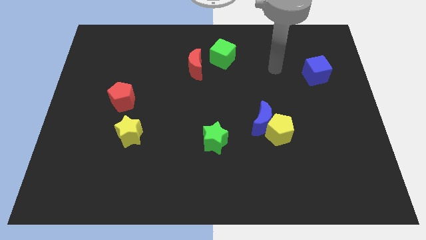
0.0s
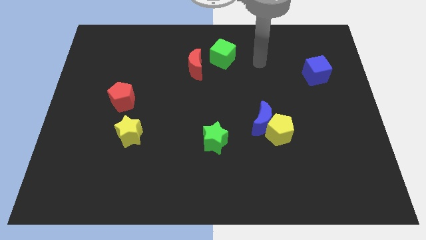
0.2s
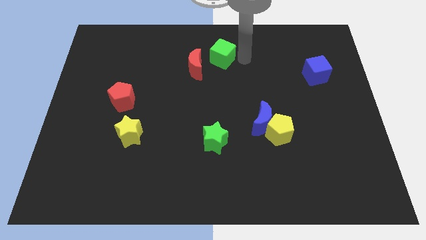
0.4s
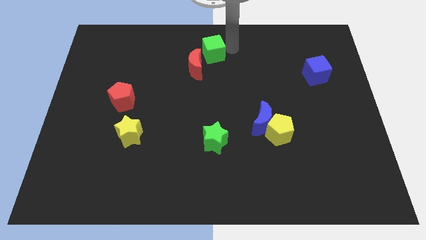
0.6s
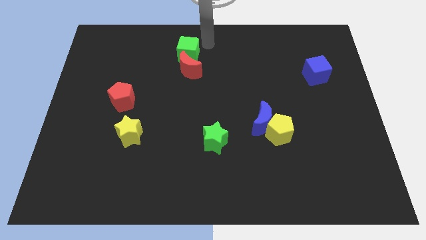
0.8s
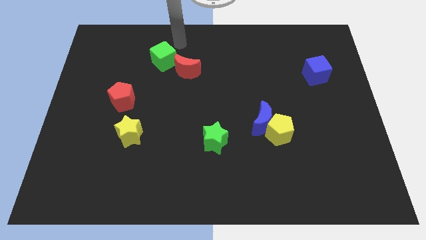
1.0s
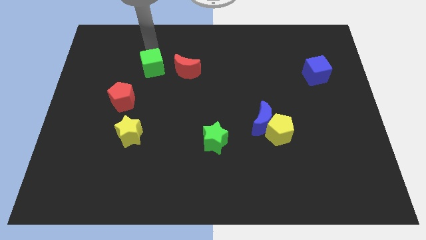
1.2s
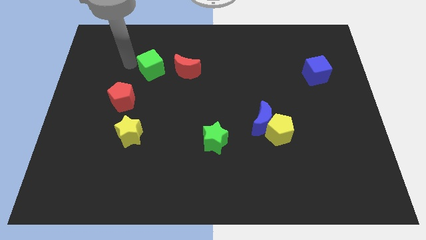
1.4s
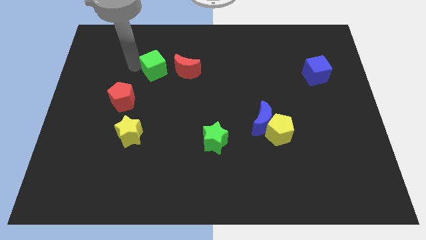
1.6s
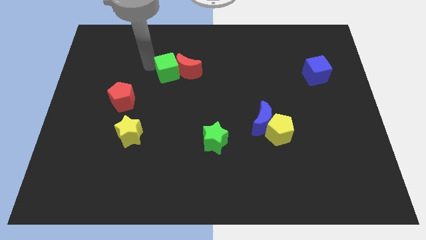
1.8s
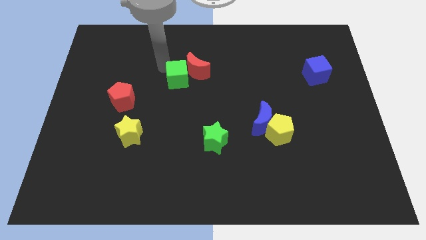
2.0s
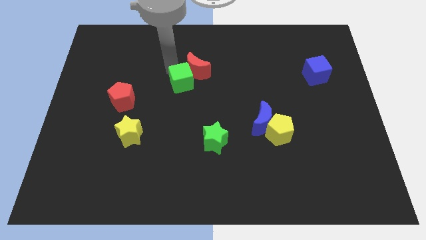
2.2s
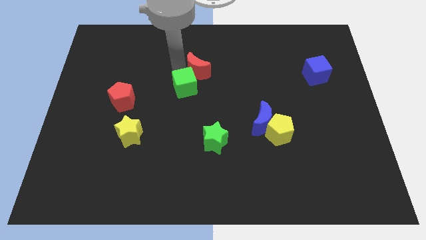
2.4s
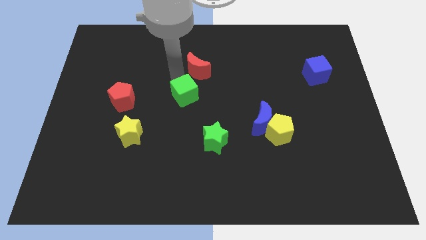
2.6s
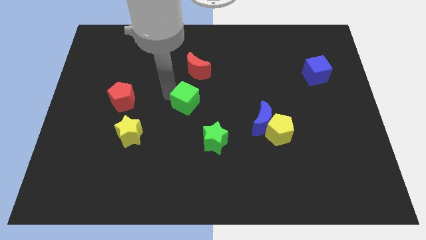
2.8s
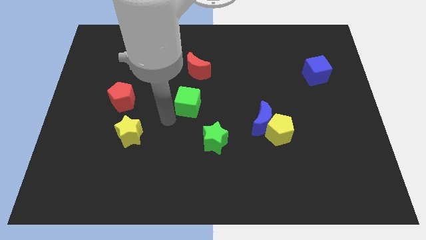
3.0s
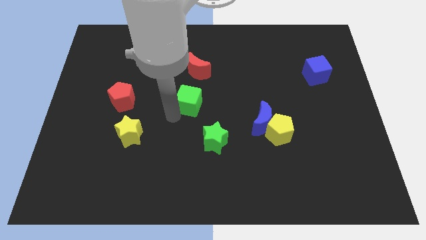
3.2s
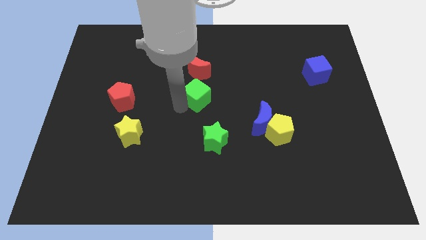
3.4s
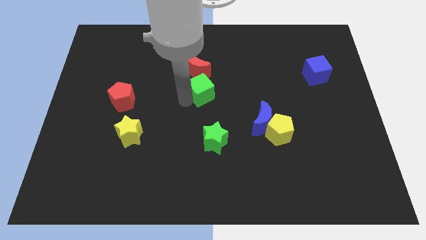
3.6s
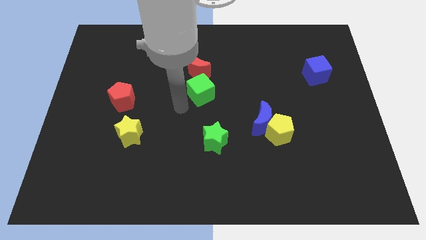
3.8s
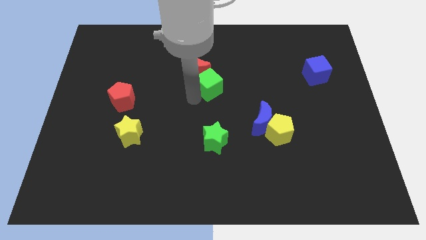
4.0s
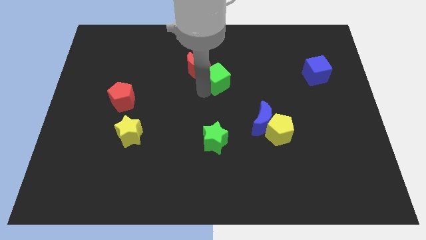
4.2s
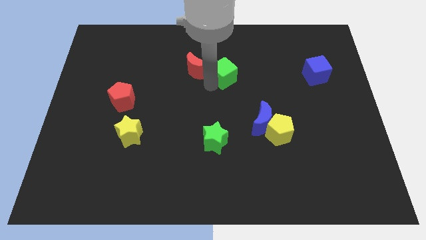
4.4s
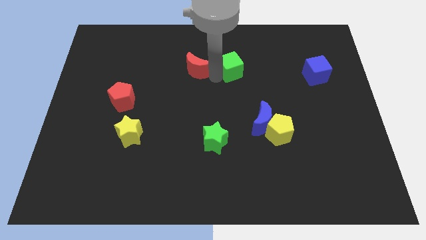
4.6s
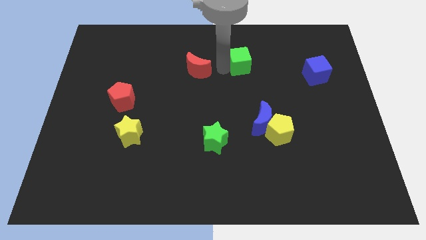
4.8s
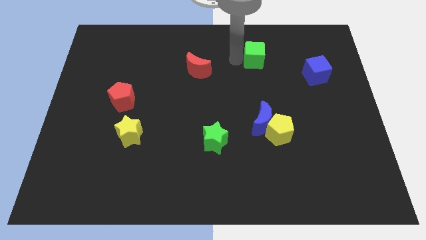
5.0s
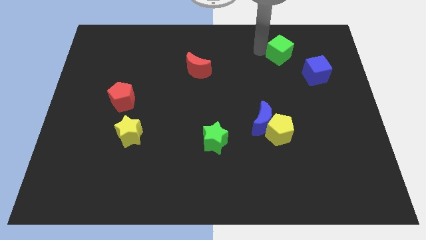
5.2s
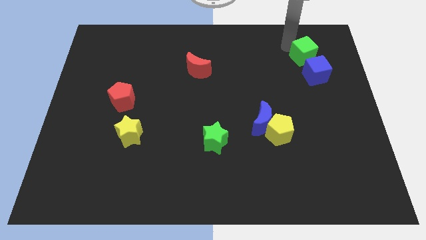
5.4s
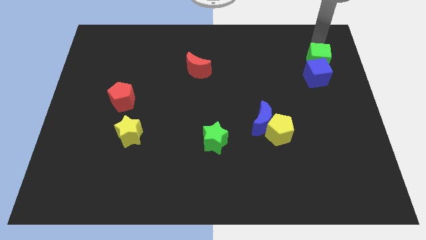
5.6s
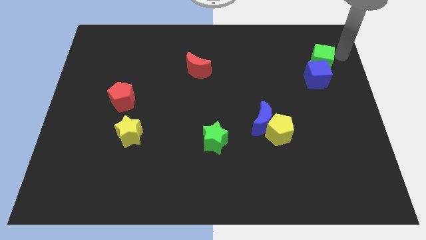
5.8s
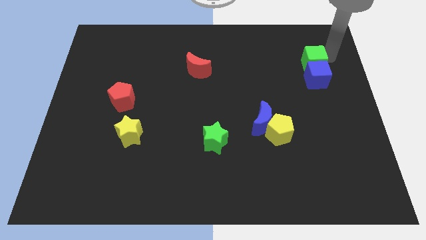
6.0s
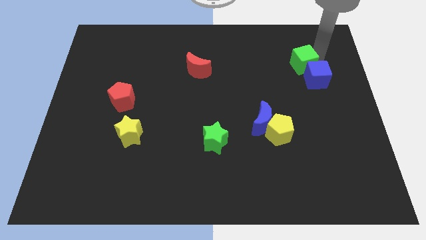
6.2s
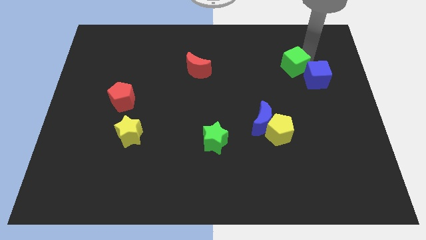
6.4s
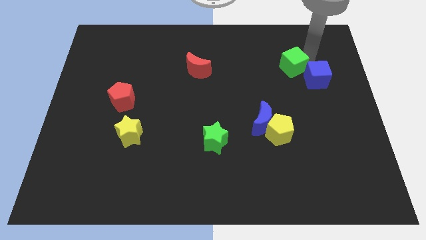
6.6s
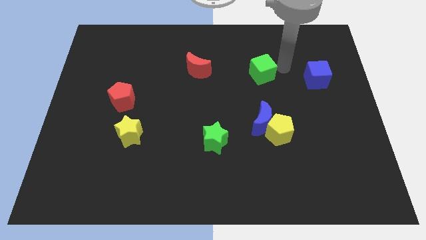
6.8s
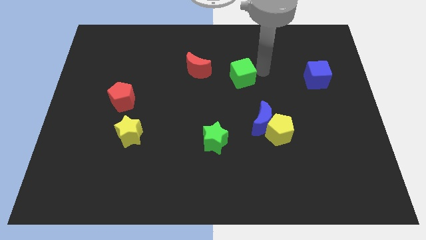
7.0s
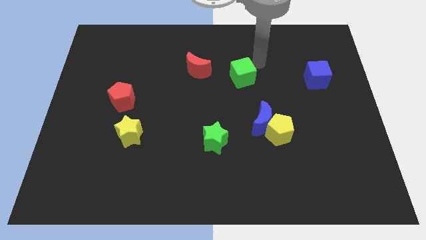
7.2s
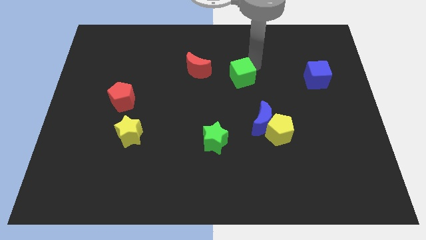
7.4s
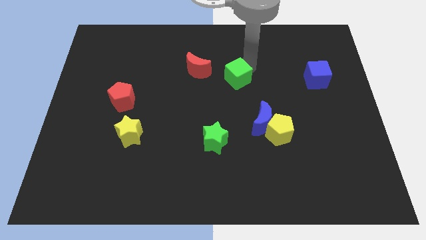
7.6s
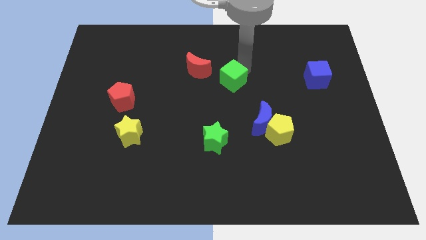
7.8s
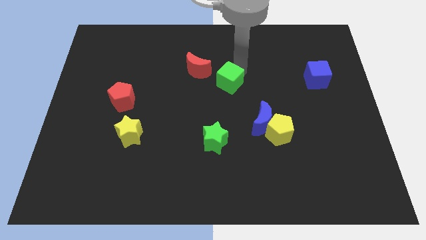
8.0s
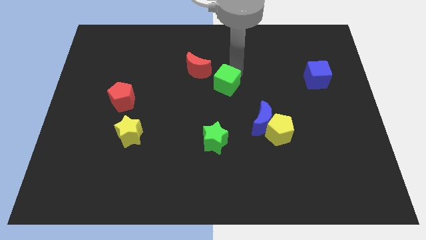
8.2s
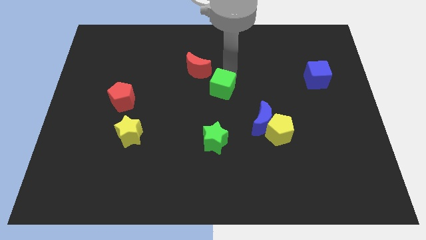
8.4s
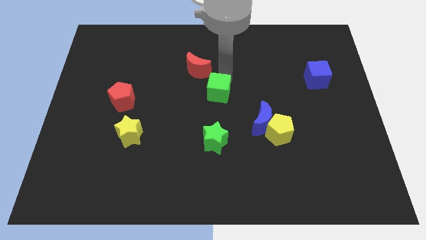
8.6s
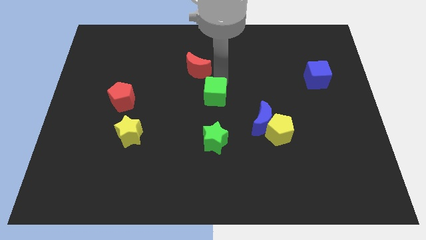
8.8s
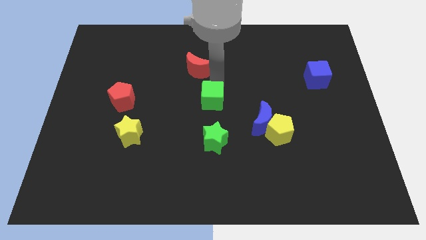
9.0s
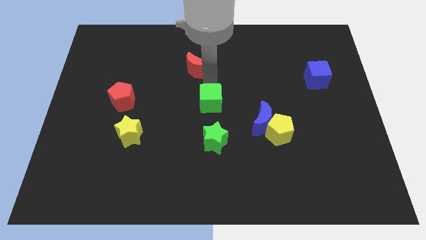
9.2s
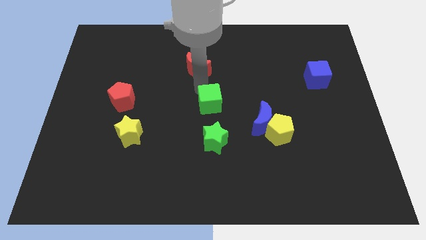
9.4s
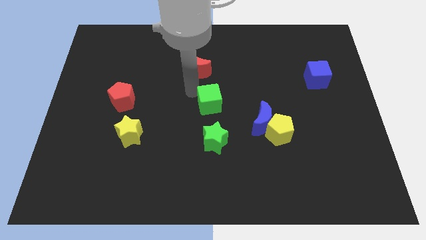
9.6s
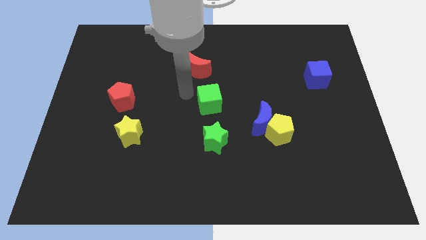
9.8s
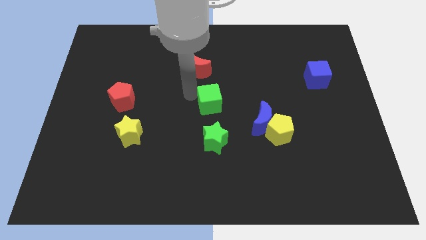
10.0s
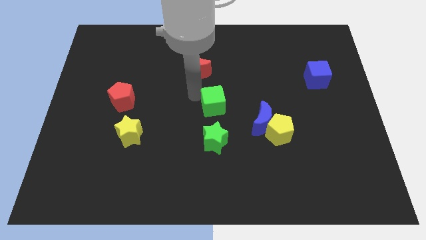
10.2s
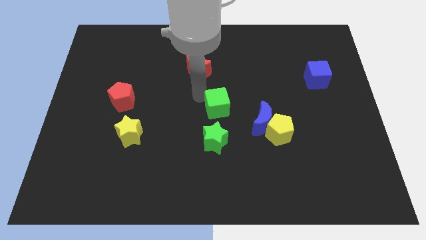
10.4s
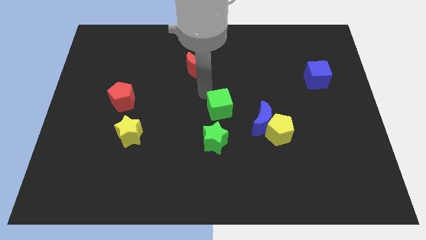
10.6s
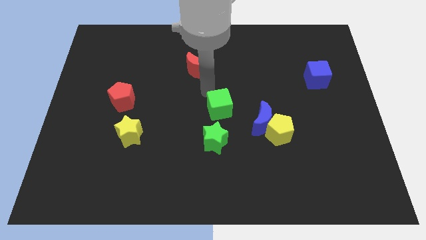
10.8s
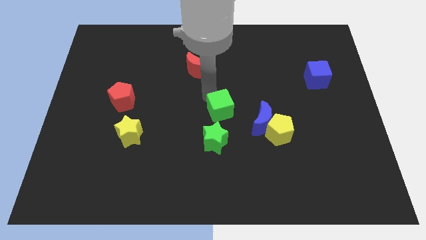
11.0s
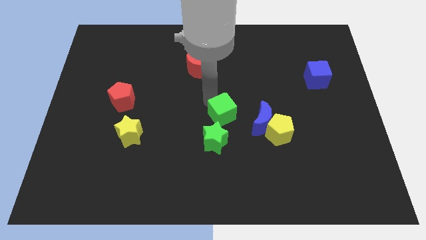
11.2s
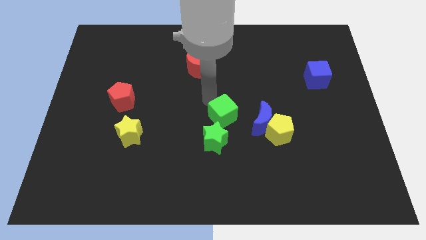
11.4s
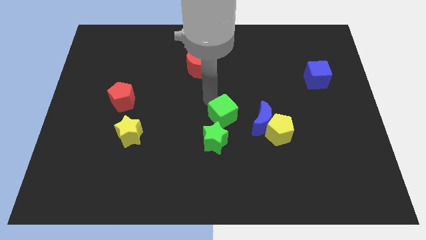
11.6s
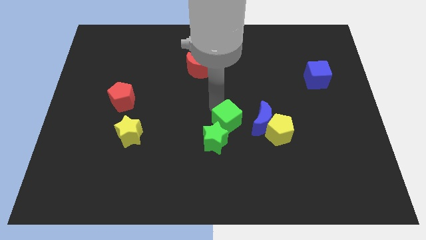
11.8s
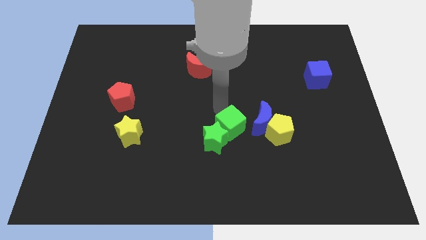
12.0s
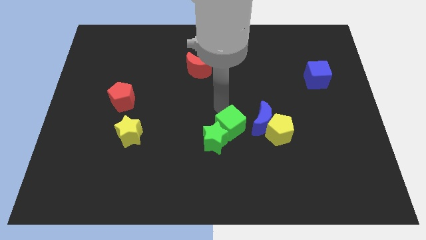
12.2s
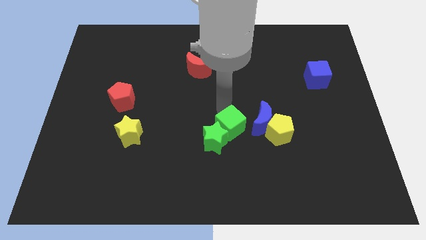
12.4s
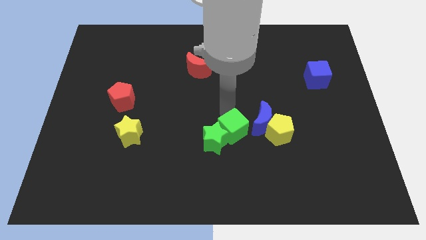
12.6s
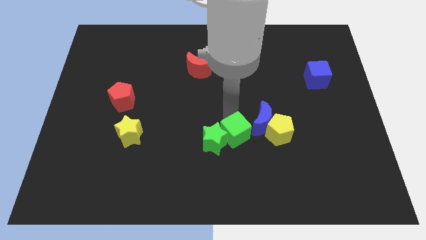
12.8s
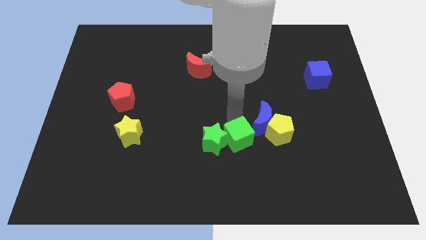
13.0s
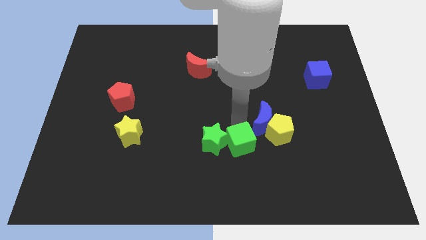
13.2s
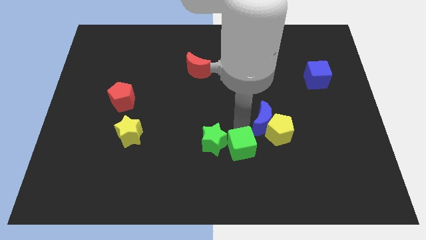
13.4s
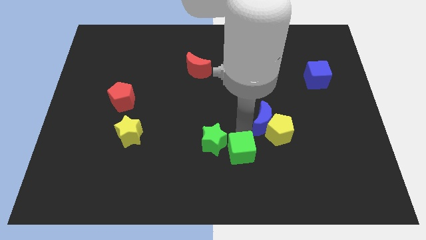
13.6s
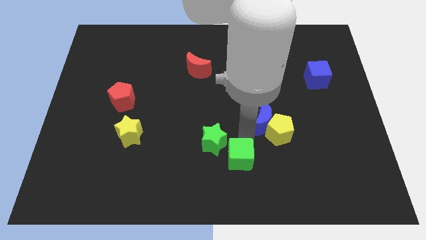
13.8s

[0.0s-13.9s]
slide the green cube to the bottom
